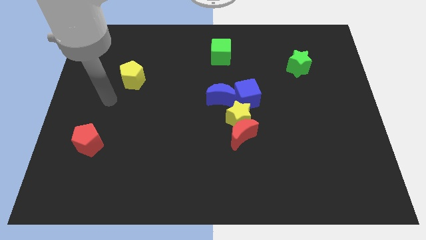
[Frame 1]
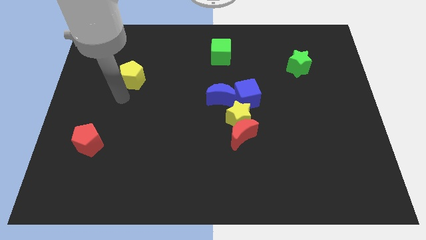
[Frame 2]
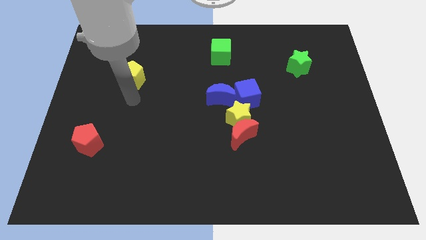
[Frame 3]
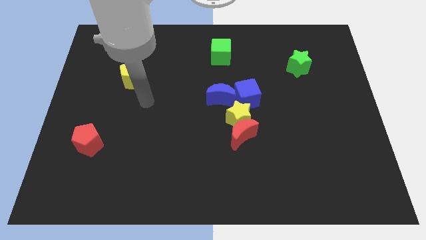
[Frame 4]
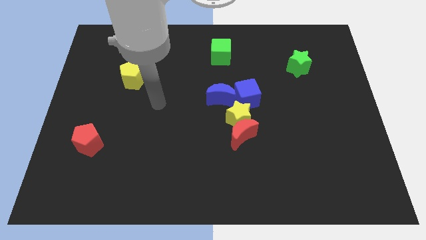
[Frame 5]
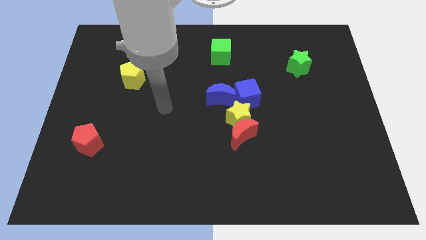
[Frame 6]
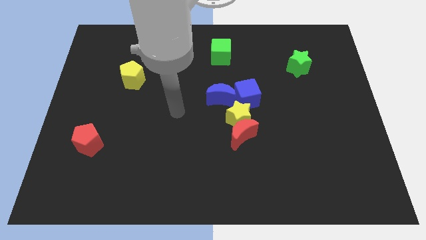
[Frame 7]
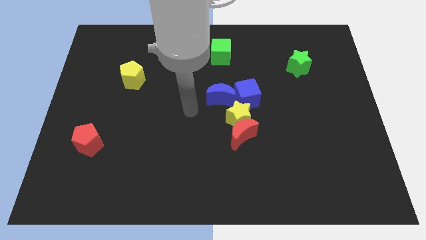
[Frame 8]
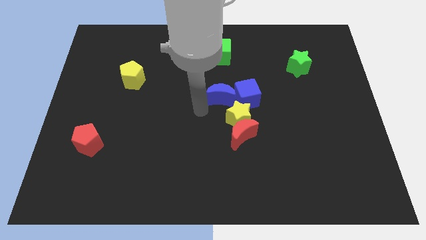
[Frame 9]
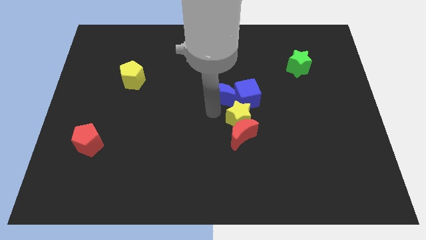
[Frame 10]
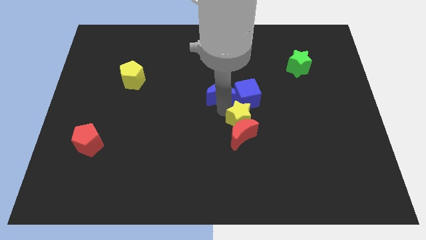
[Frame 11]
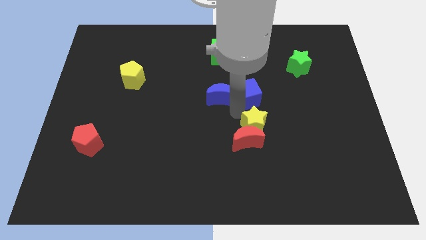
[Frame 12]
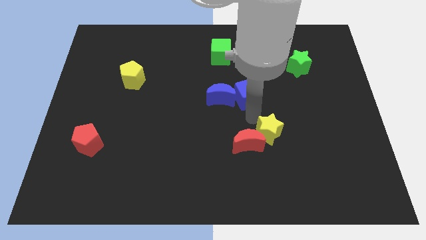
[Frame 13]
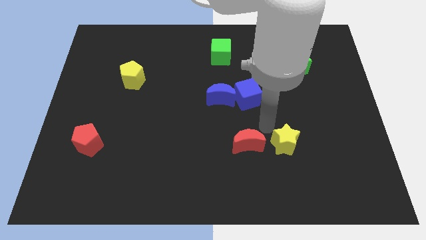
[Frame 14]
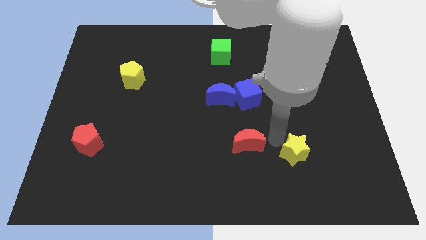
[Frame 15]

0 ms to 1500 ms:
pull the red moon apart from the yellow star

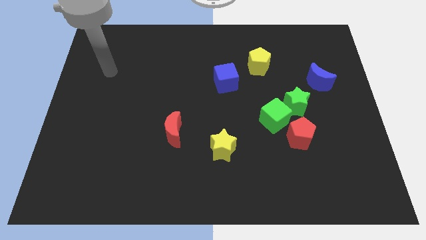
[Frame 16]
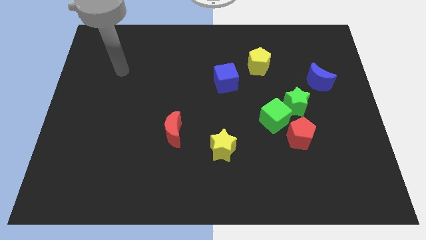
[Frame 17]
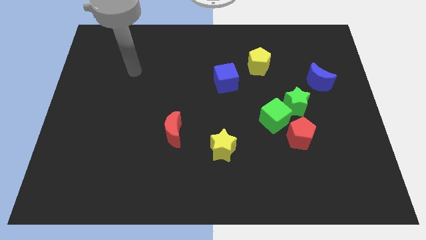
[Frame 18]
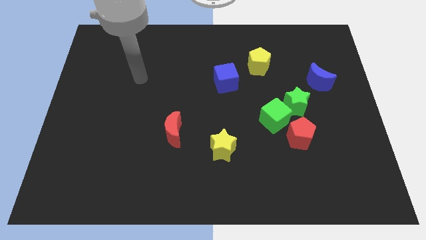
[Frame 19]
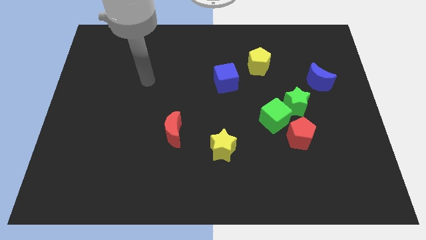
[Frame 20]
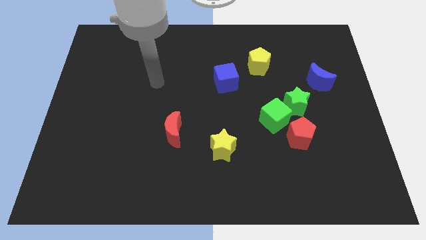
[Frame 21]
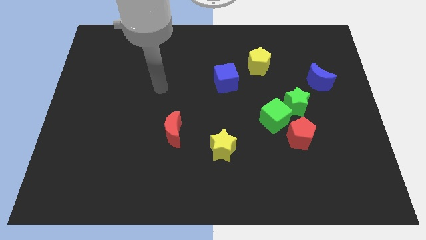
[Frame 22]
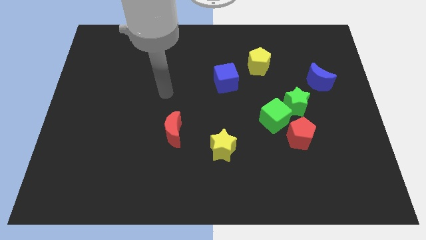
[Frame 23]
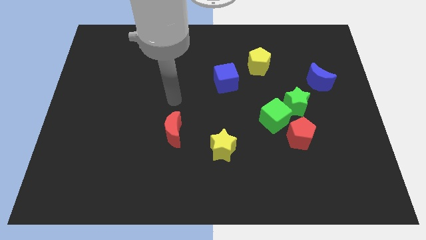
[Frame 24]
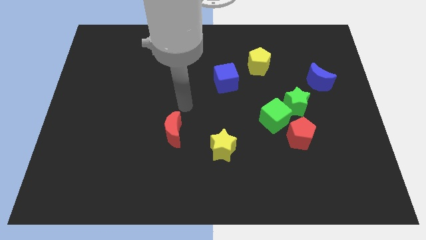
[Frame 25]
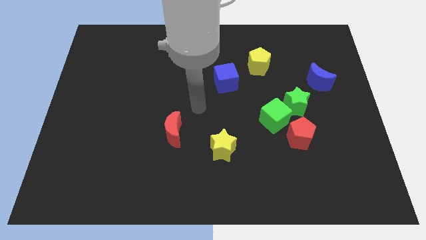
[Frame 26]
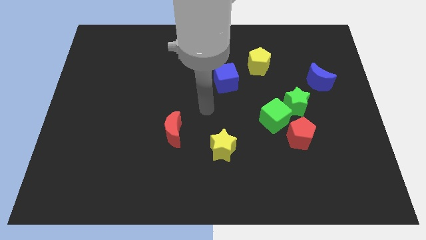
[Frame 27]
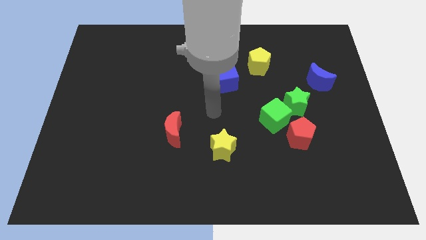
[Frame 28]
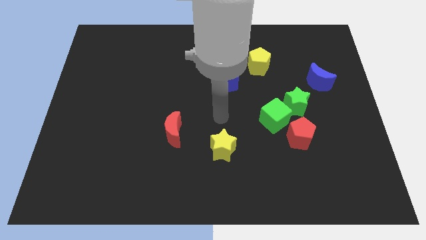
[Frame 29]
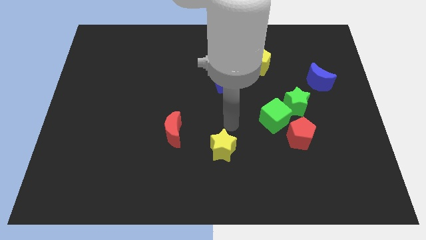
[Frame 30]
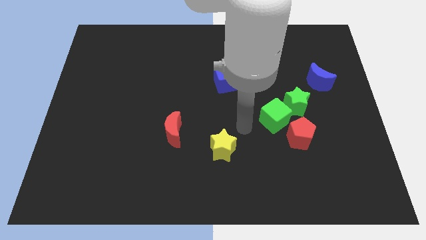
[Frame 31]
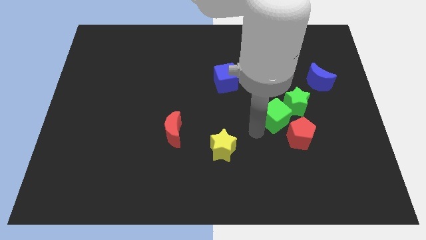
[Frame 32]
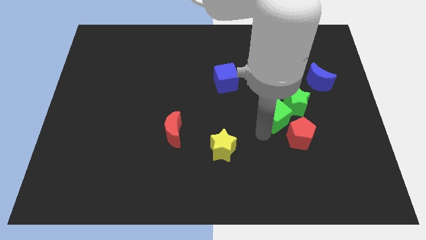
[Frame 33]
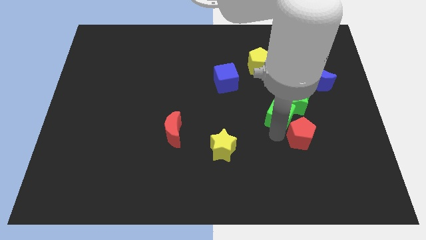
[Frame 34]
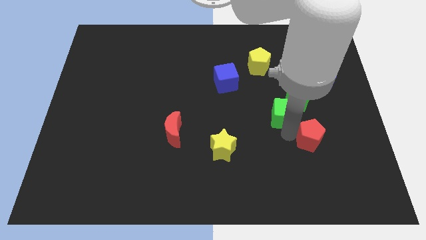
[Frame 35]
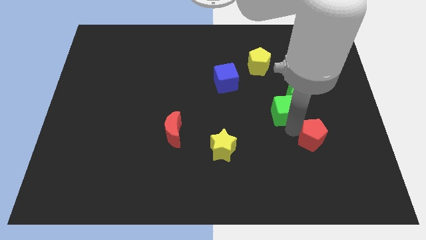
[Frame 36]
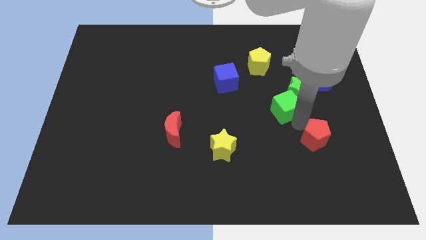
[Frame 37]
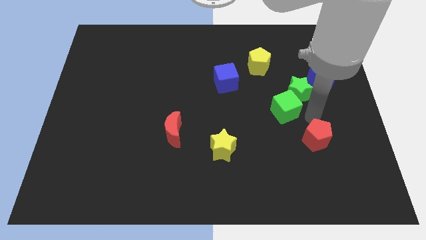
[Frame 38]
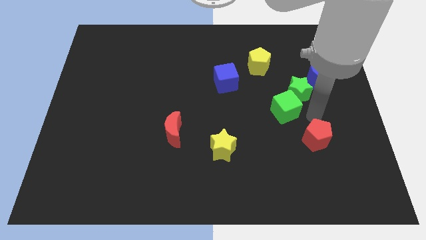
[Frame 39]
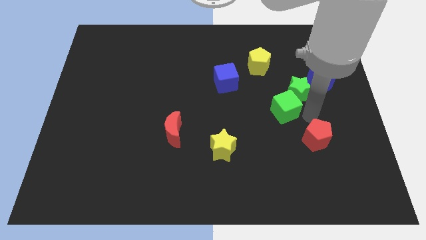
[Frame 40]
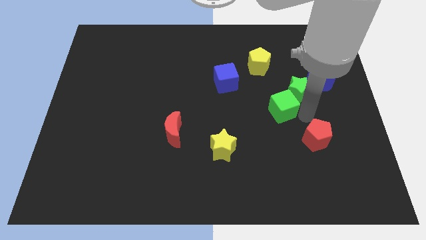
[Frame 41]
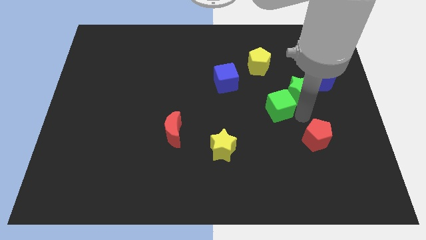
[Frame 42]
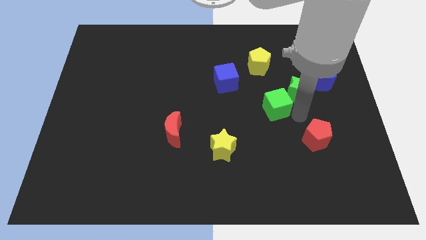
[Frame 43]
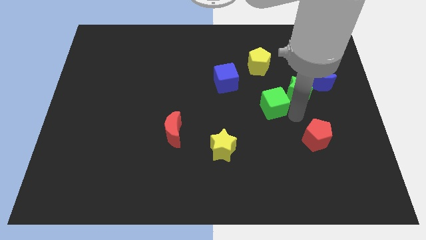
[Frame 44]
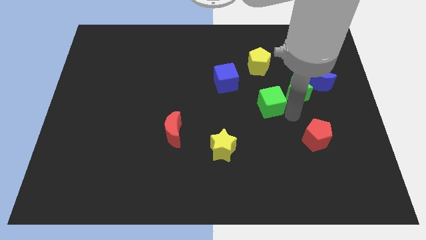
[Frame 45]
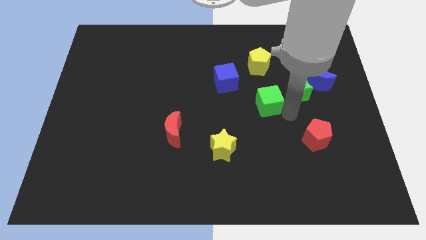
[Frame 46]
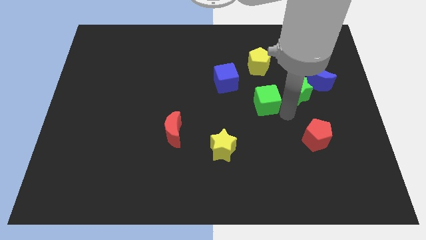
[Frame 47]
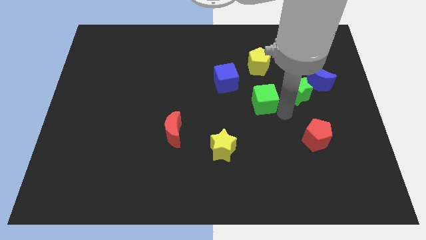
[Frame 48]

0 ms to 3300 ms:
separate the green cube from the green star and red pentagon

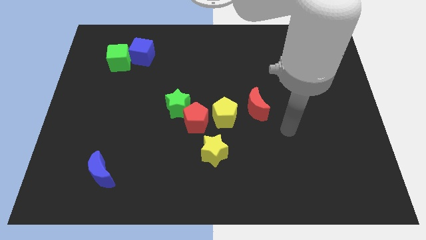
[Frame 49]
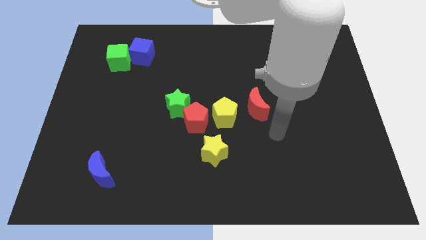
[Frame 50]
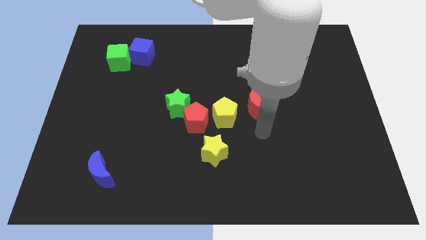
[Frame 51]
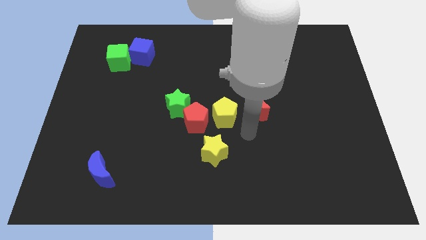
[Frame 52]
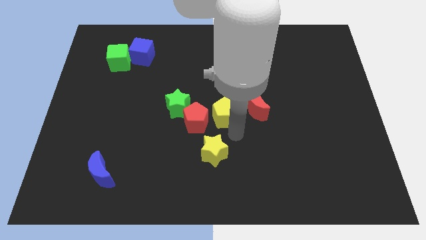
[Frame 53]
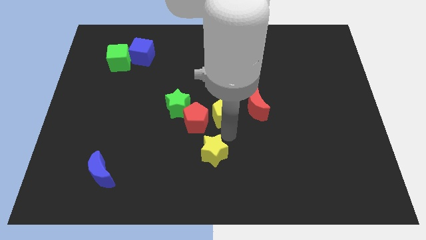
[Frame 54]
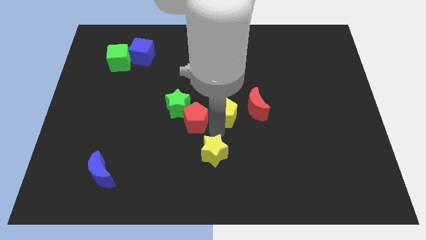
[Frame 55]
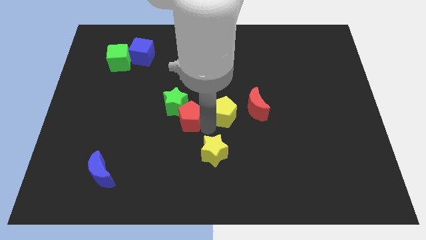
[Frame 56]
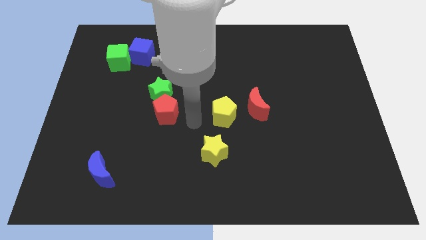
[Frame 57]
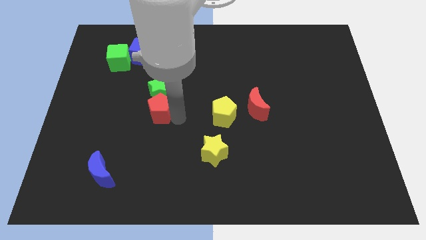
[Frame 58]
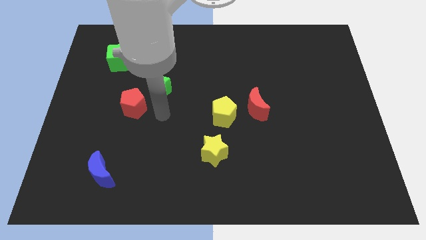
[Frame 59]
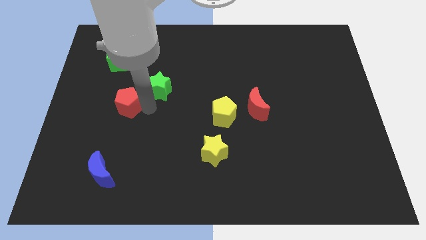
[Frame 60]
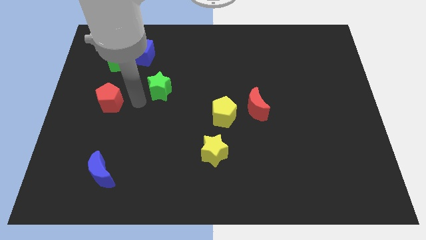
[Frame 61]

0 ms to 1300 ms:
separate the green star from the red pentagon

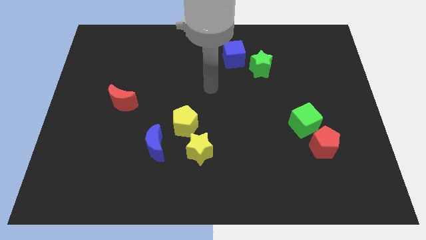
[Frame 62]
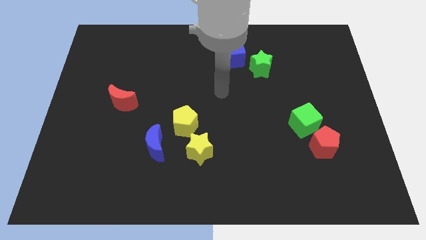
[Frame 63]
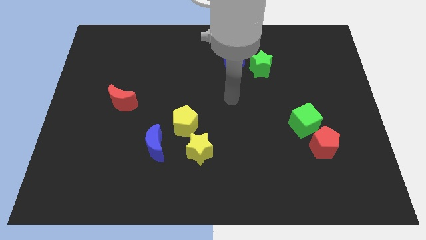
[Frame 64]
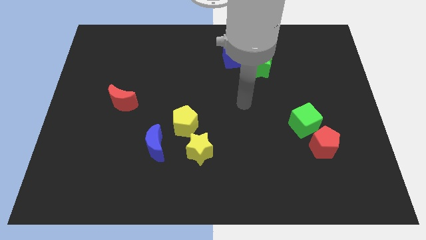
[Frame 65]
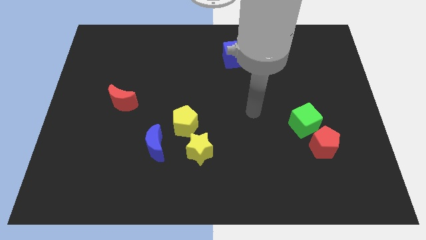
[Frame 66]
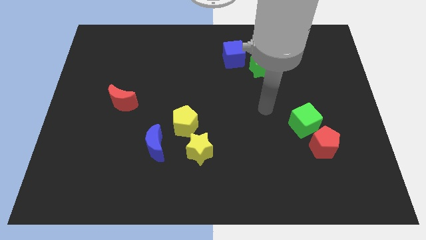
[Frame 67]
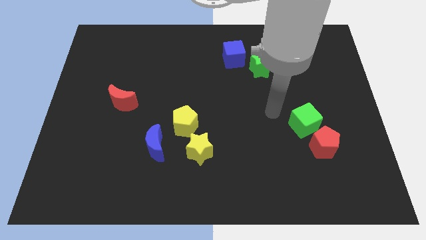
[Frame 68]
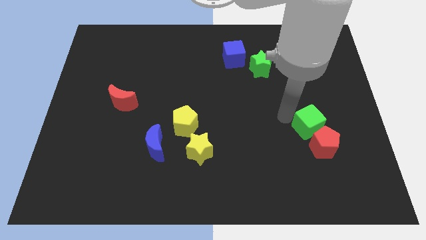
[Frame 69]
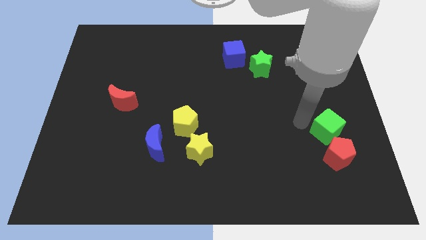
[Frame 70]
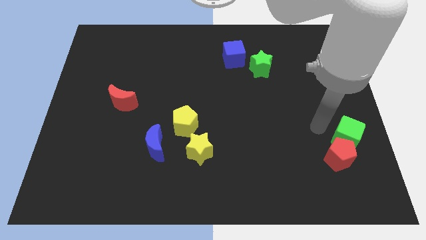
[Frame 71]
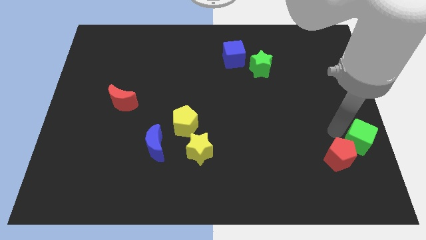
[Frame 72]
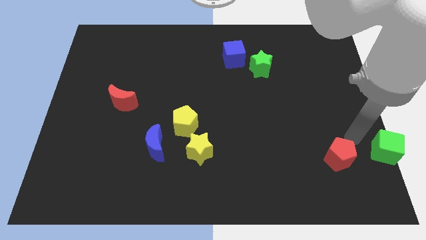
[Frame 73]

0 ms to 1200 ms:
move the red pentagon away from the green cube

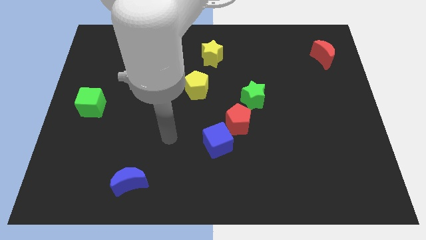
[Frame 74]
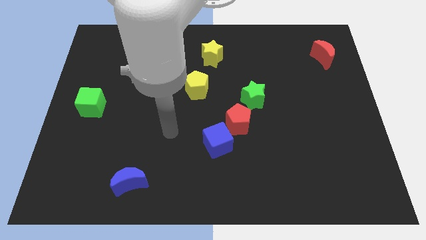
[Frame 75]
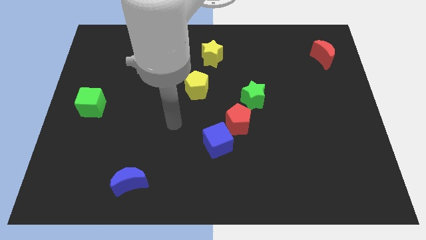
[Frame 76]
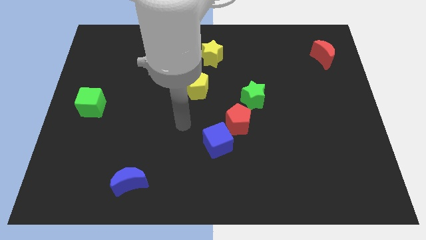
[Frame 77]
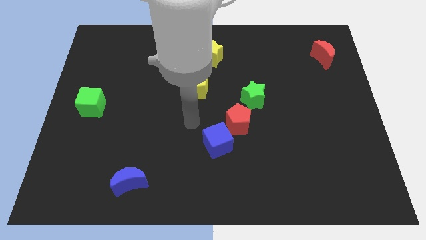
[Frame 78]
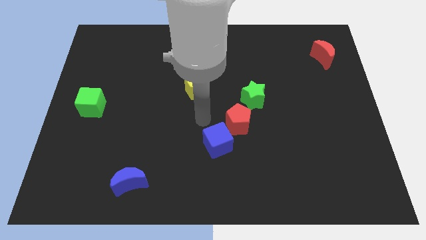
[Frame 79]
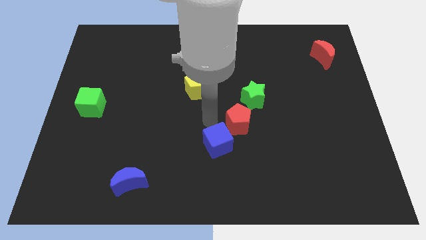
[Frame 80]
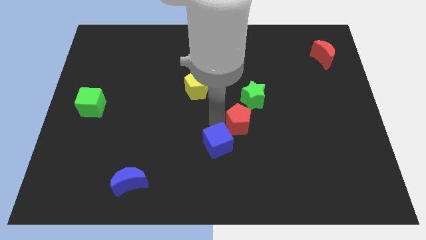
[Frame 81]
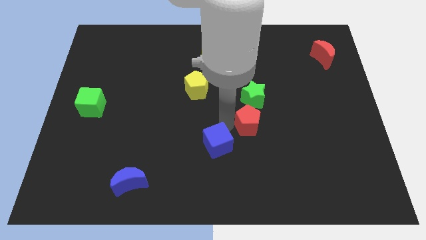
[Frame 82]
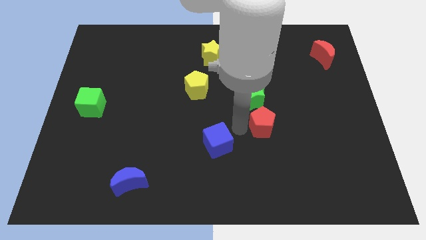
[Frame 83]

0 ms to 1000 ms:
pull the blue cube apart from the red pentagon

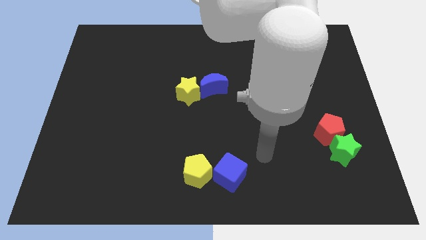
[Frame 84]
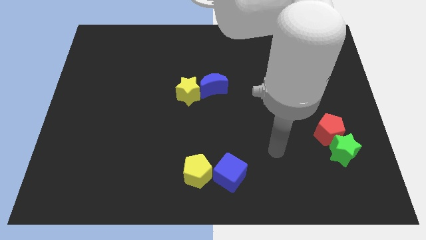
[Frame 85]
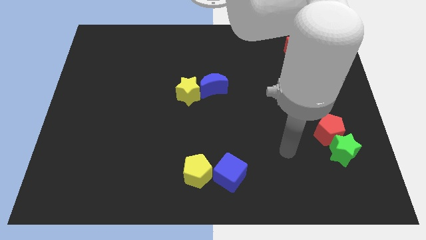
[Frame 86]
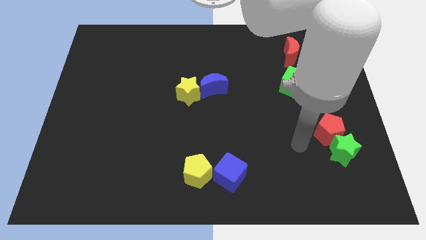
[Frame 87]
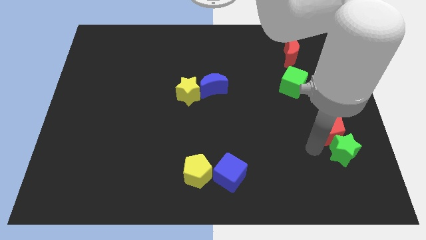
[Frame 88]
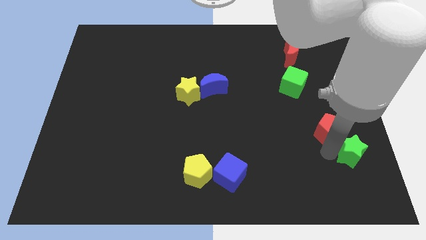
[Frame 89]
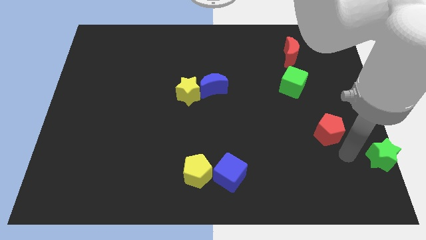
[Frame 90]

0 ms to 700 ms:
separate the red pentagon from the green star

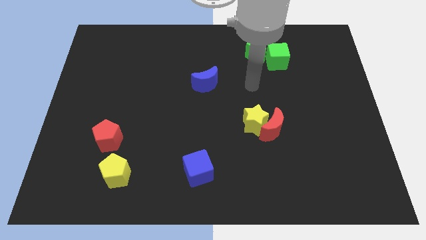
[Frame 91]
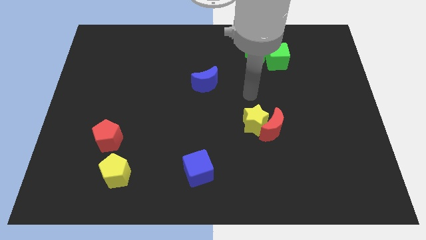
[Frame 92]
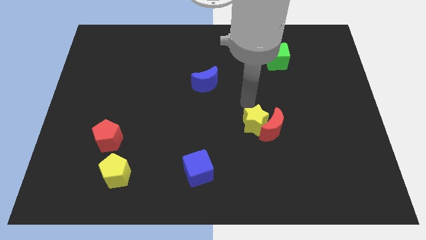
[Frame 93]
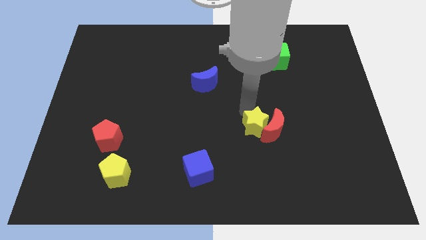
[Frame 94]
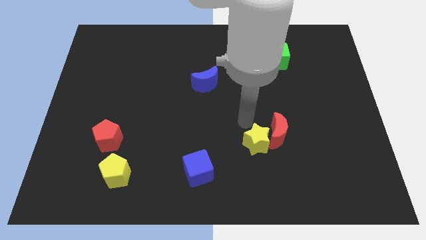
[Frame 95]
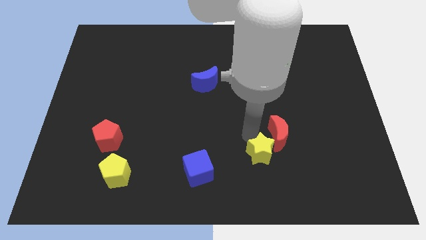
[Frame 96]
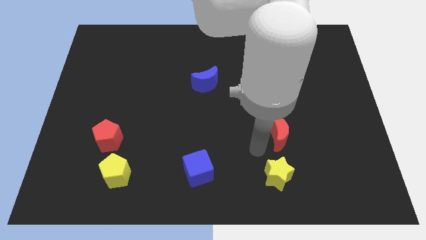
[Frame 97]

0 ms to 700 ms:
move the red moon away from the yellow star
